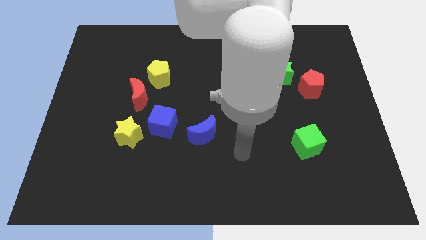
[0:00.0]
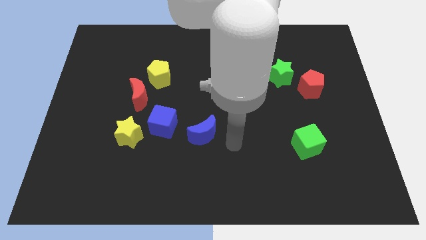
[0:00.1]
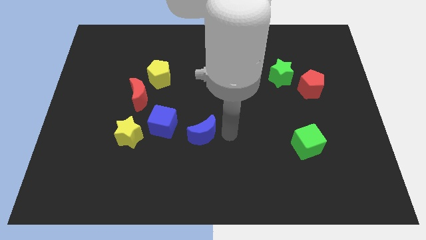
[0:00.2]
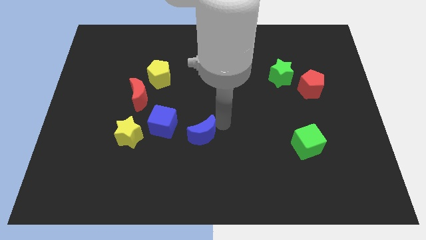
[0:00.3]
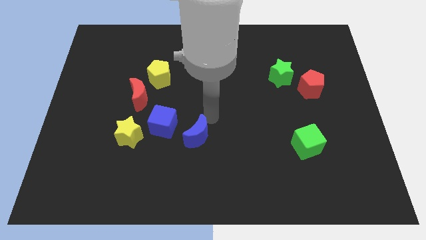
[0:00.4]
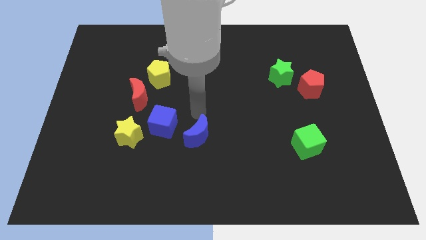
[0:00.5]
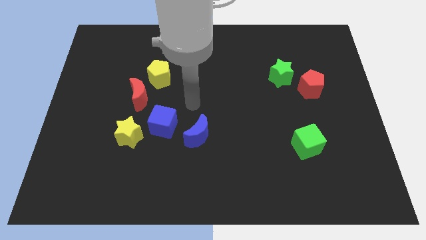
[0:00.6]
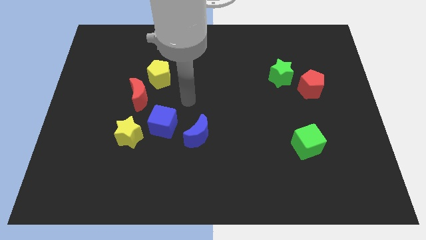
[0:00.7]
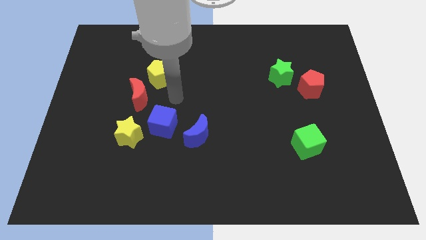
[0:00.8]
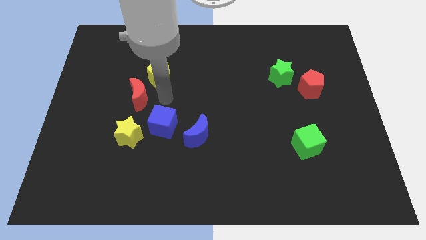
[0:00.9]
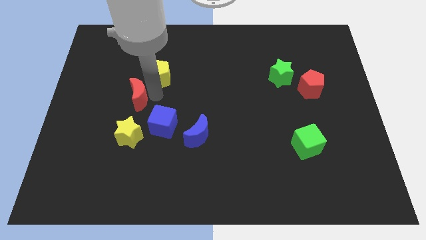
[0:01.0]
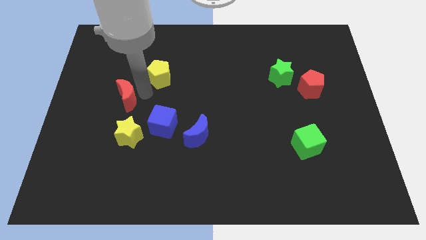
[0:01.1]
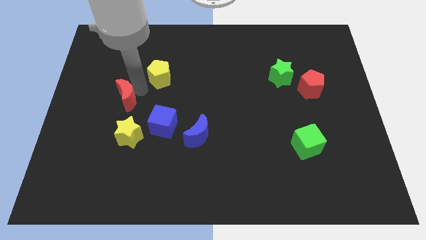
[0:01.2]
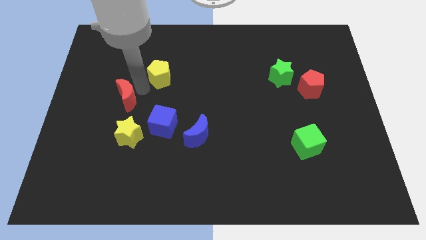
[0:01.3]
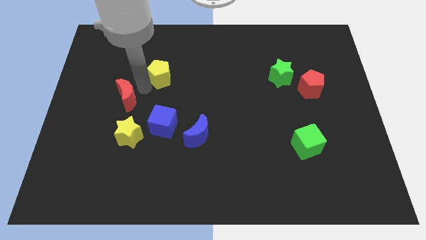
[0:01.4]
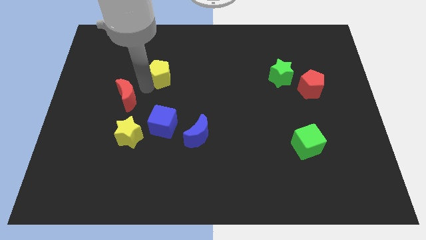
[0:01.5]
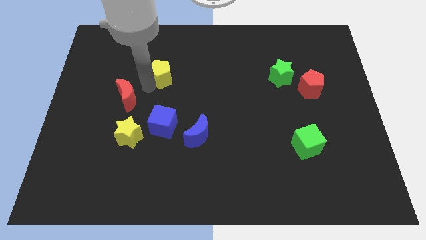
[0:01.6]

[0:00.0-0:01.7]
separate the yellow pentagon from the red moon

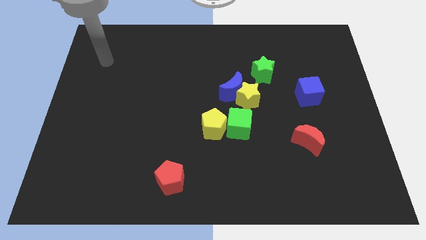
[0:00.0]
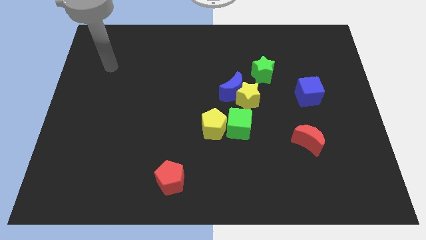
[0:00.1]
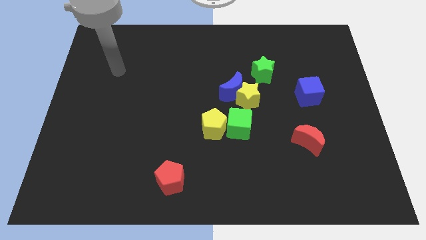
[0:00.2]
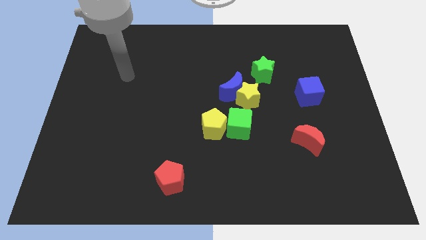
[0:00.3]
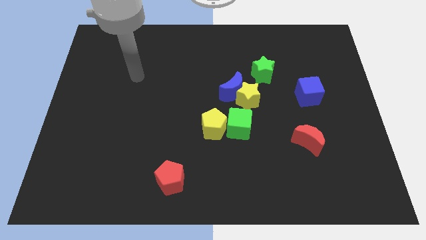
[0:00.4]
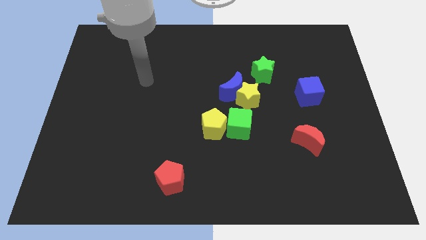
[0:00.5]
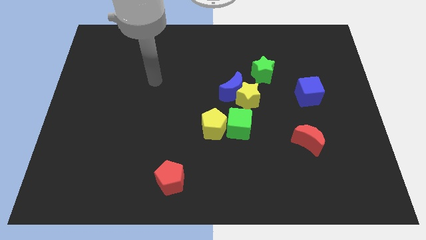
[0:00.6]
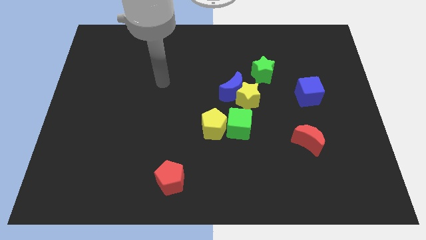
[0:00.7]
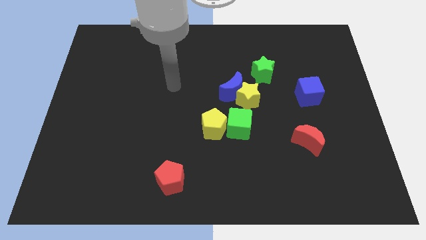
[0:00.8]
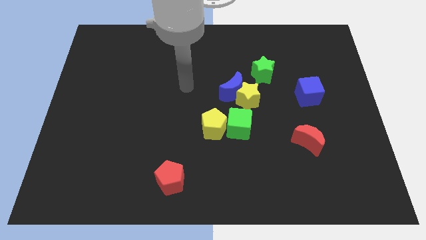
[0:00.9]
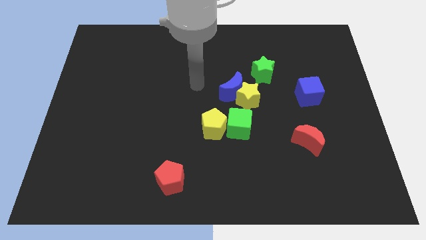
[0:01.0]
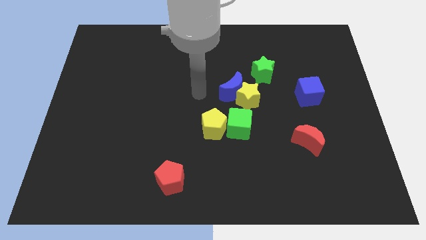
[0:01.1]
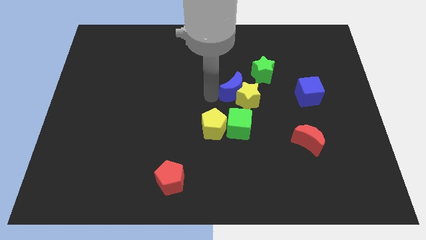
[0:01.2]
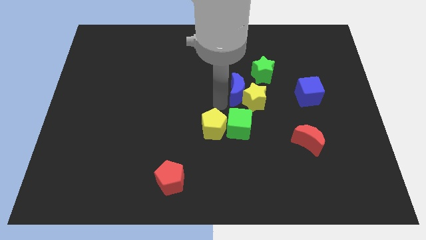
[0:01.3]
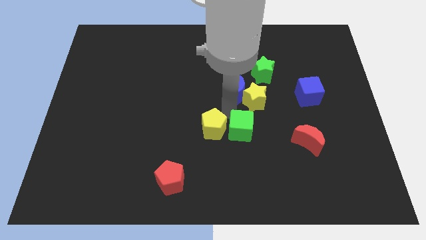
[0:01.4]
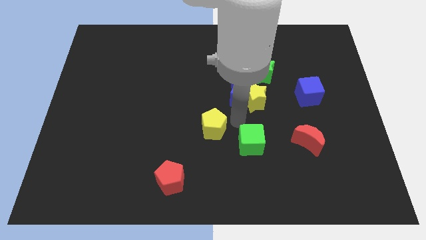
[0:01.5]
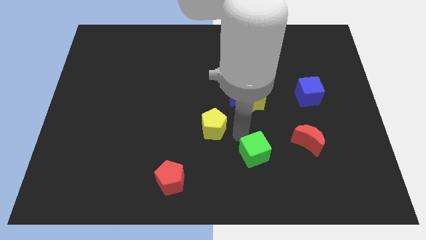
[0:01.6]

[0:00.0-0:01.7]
separate the yellow pentagon from the green cube

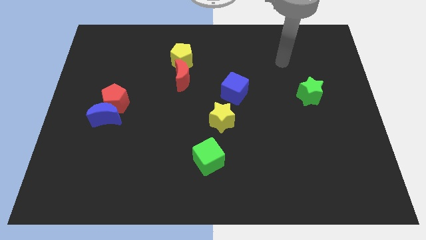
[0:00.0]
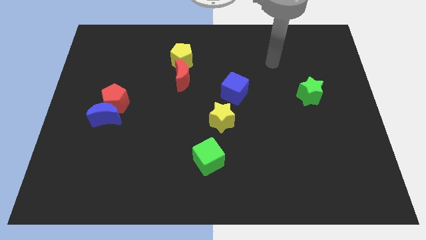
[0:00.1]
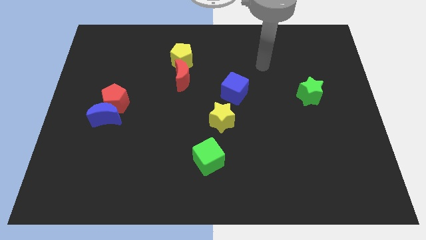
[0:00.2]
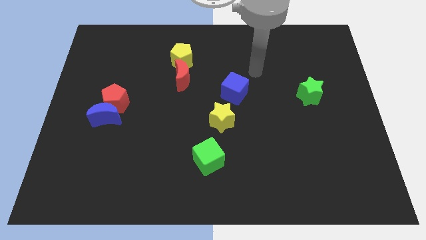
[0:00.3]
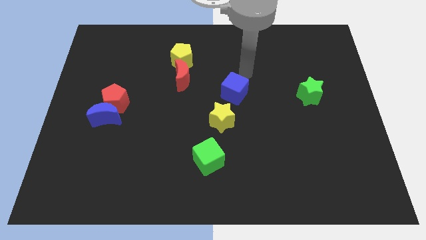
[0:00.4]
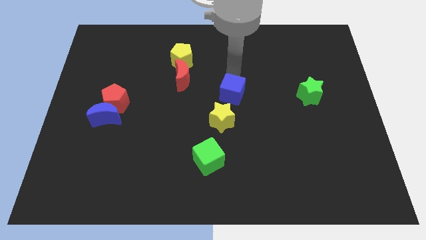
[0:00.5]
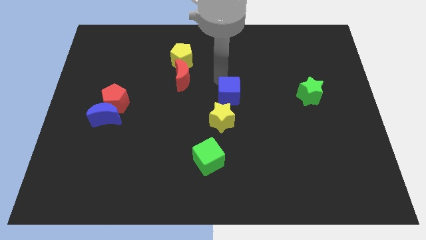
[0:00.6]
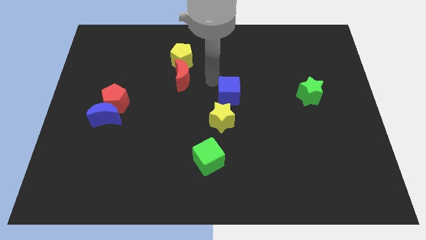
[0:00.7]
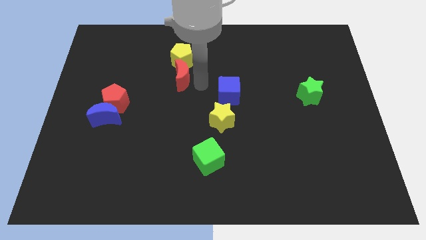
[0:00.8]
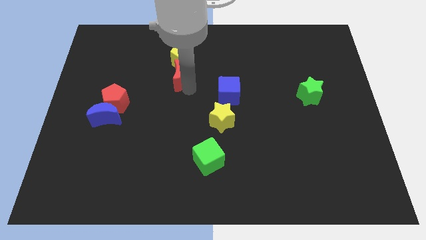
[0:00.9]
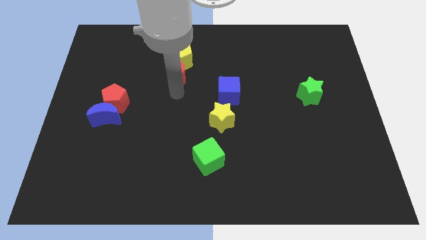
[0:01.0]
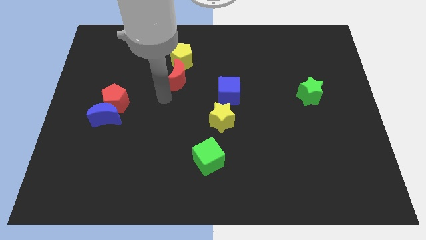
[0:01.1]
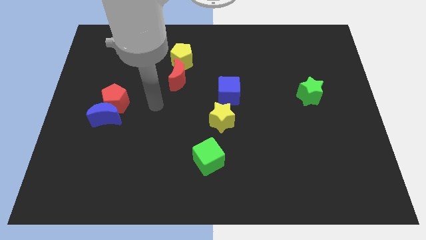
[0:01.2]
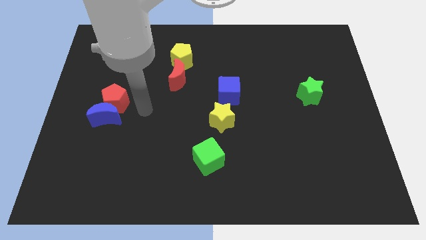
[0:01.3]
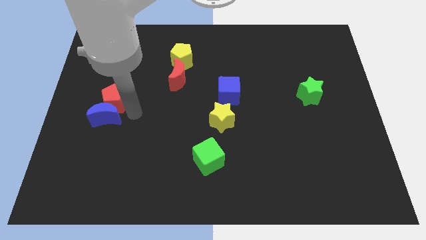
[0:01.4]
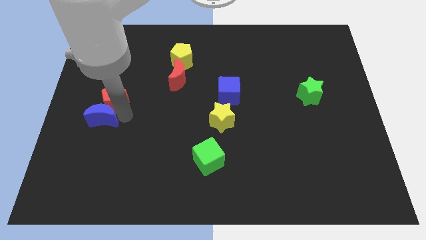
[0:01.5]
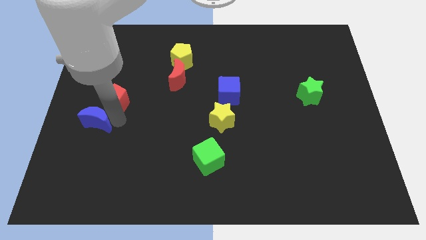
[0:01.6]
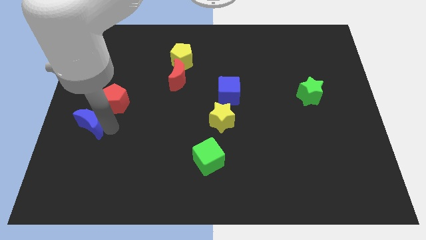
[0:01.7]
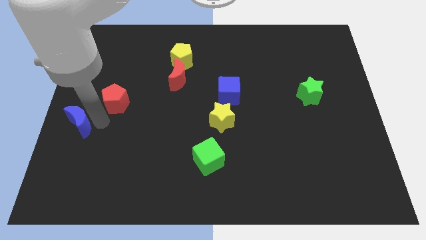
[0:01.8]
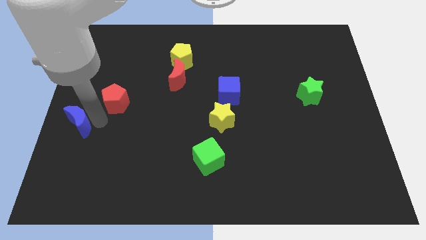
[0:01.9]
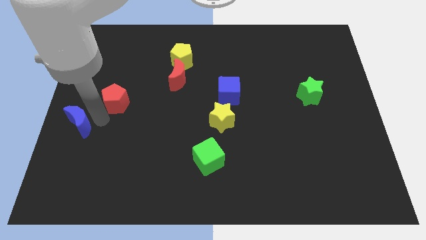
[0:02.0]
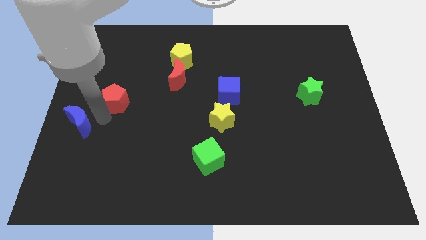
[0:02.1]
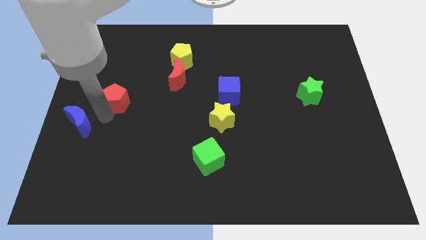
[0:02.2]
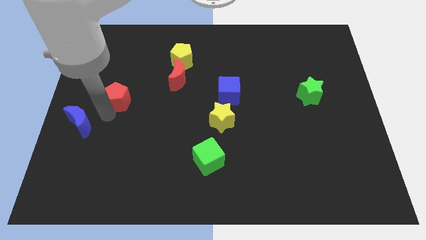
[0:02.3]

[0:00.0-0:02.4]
separate the red pentagon from the blue moon

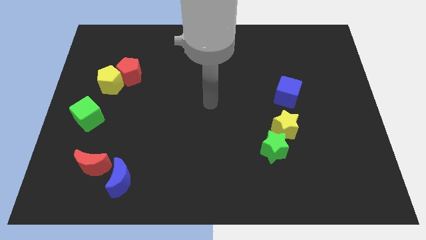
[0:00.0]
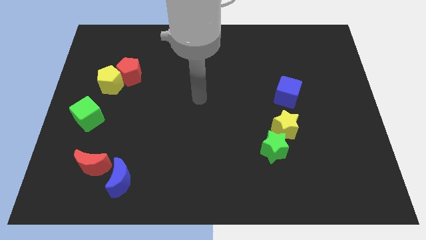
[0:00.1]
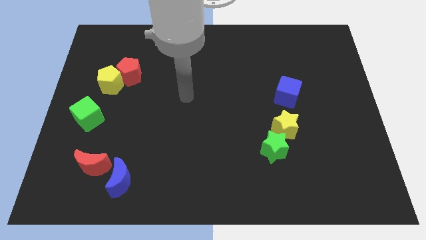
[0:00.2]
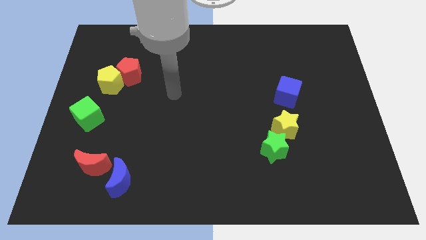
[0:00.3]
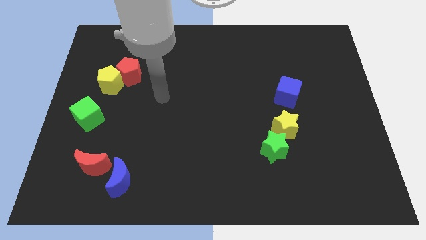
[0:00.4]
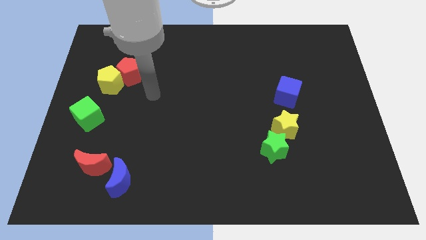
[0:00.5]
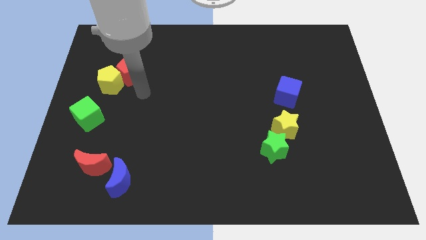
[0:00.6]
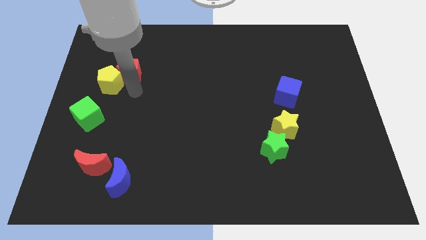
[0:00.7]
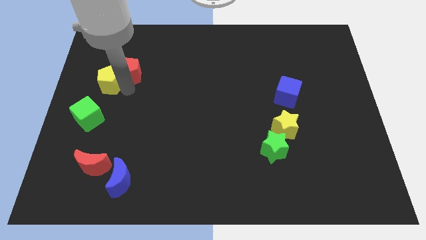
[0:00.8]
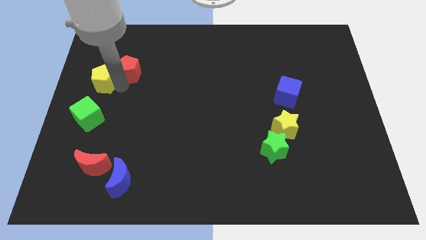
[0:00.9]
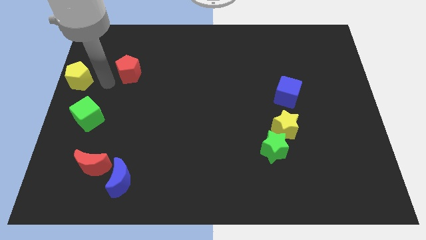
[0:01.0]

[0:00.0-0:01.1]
separate the red pentagon from the yellow pentagon

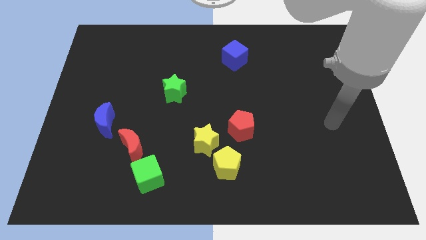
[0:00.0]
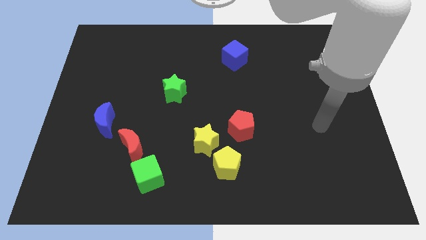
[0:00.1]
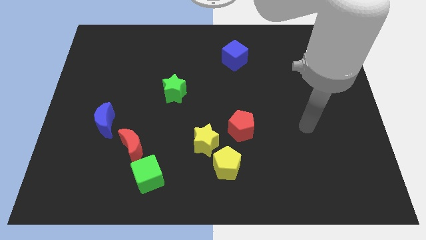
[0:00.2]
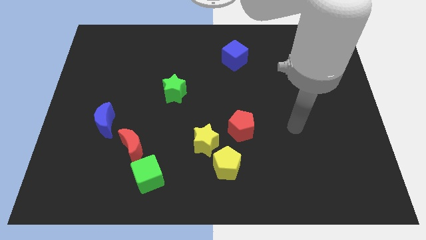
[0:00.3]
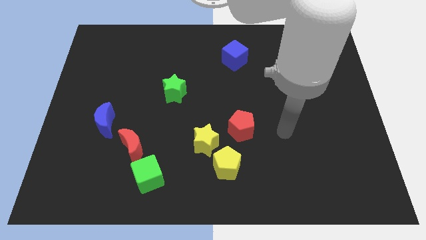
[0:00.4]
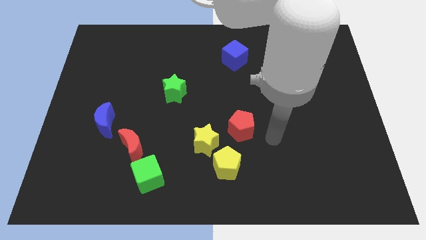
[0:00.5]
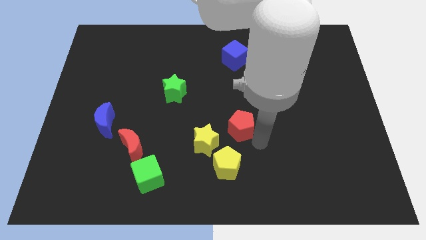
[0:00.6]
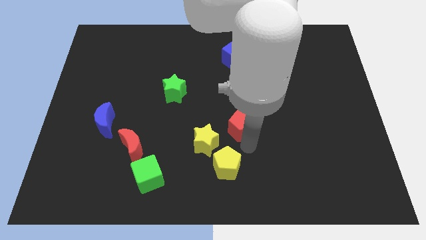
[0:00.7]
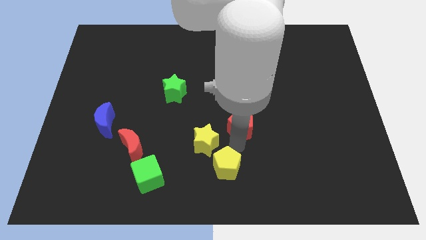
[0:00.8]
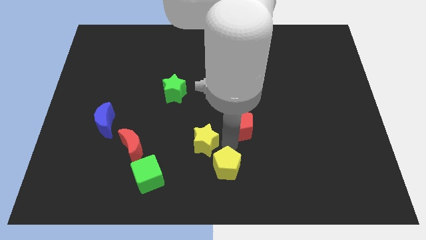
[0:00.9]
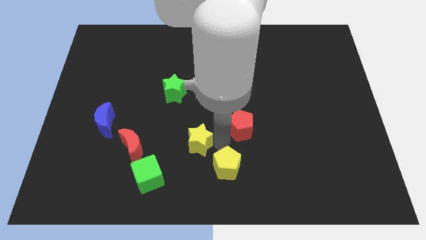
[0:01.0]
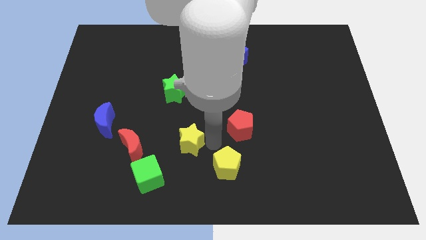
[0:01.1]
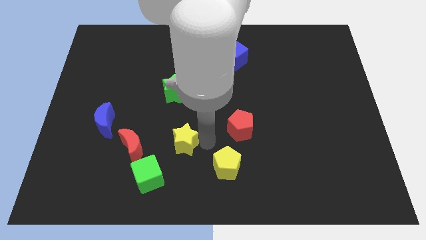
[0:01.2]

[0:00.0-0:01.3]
separate the yellow star from the yellow pentagon and red pentagon

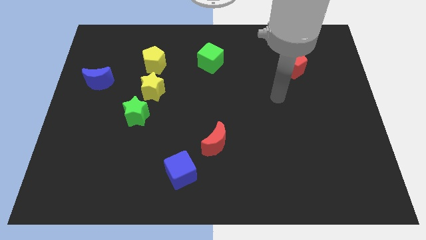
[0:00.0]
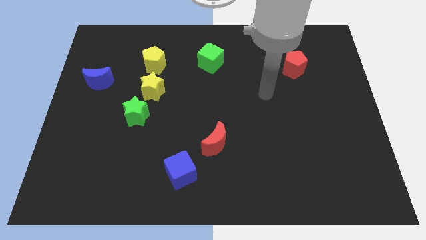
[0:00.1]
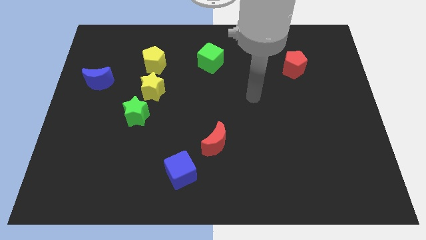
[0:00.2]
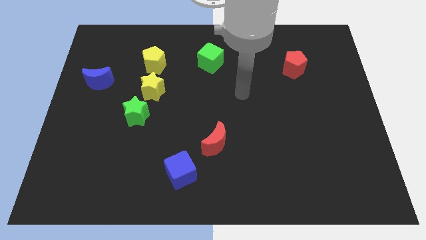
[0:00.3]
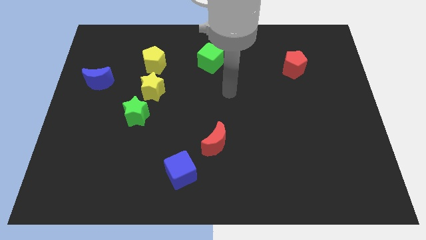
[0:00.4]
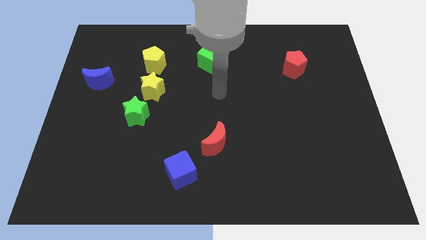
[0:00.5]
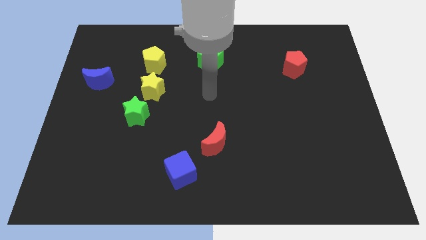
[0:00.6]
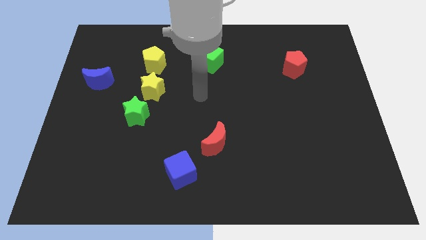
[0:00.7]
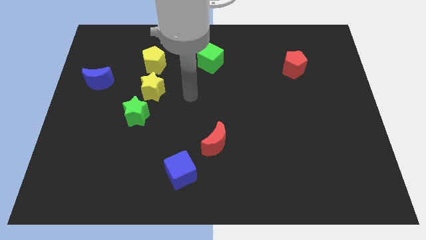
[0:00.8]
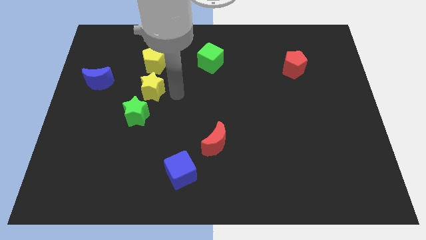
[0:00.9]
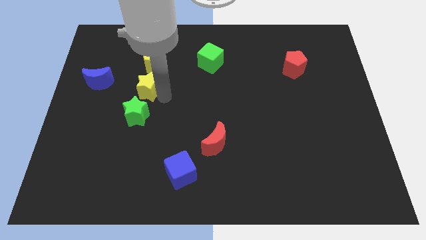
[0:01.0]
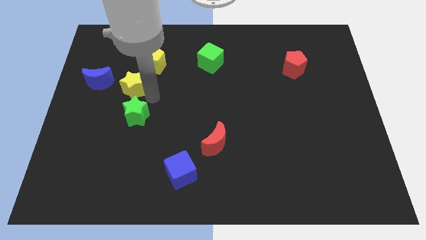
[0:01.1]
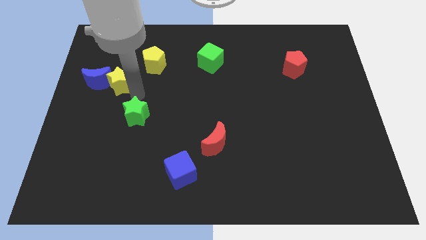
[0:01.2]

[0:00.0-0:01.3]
move the green star away from the yellow star
